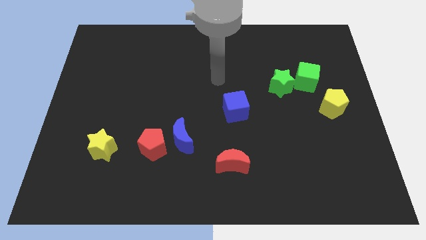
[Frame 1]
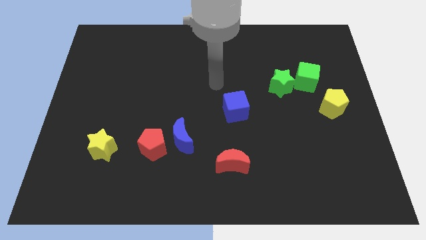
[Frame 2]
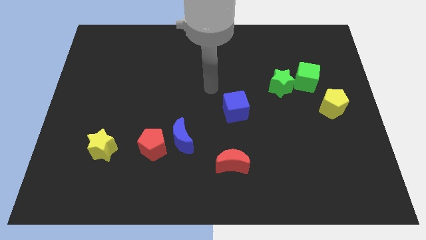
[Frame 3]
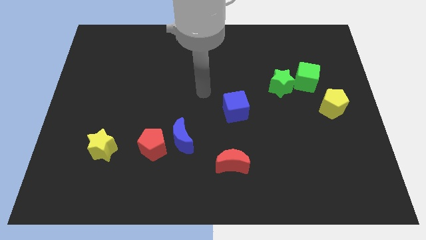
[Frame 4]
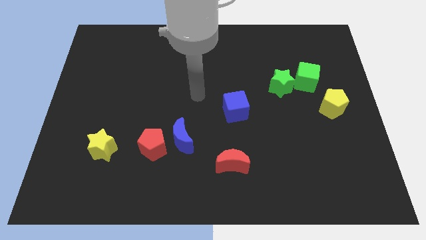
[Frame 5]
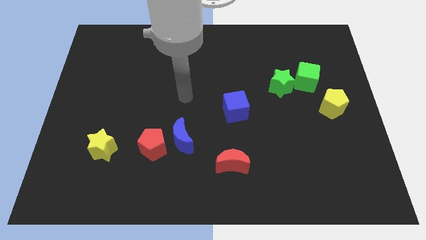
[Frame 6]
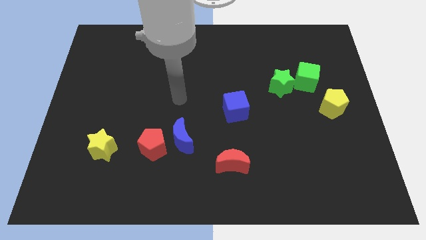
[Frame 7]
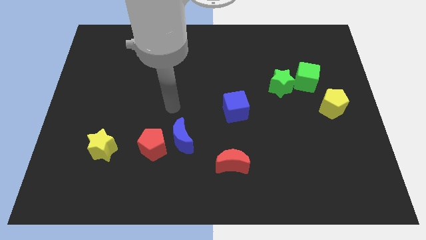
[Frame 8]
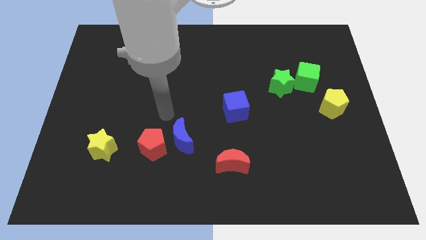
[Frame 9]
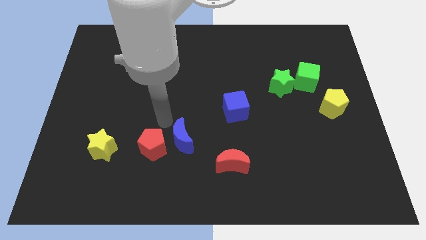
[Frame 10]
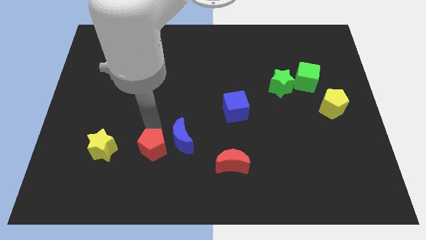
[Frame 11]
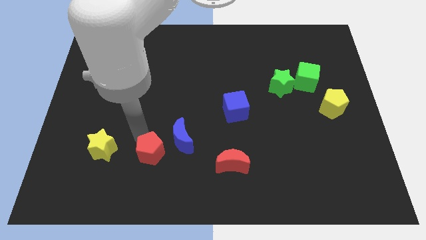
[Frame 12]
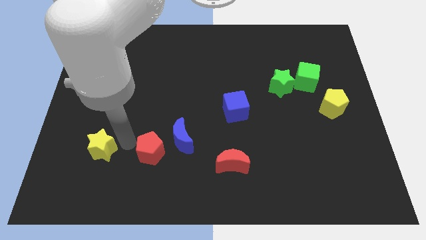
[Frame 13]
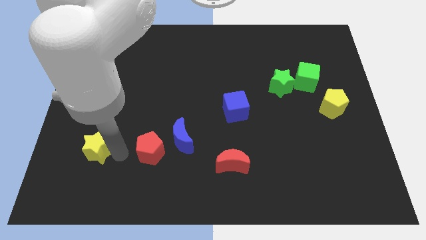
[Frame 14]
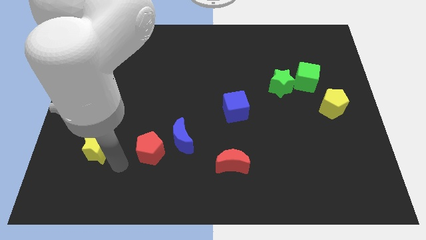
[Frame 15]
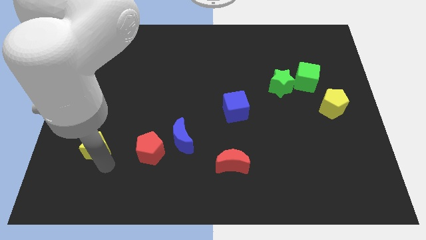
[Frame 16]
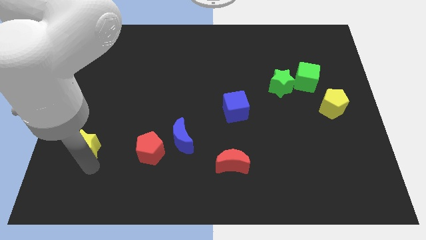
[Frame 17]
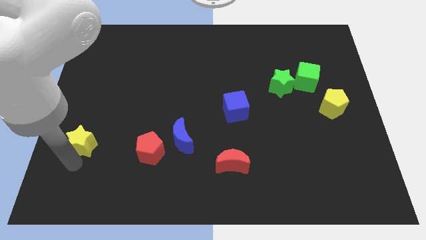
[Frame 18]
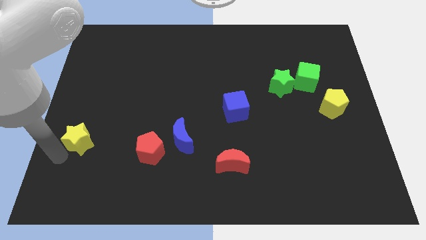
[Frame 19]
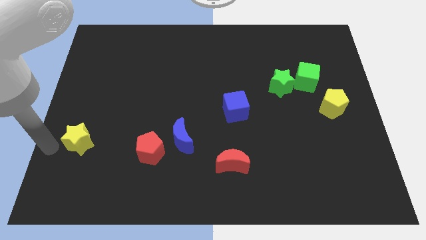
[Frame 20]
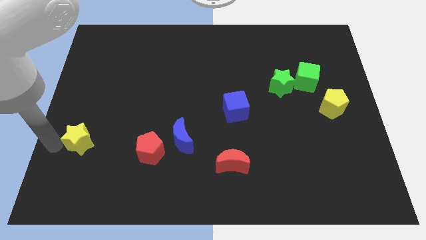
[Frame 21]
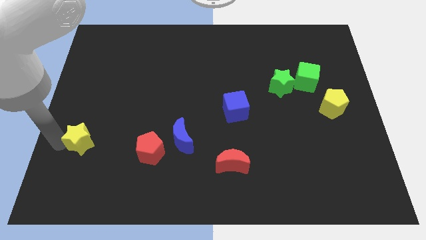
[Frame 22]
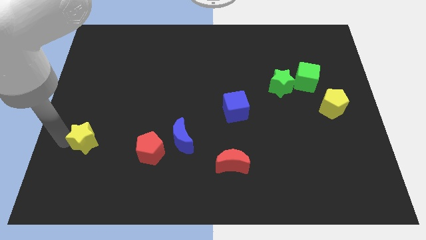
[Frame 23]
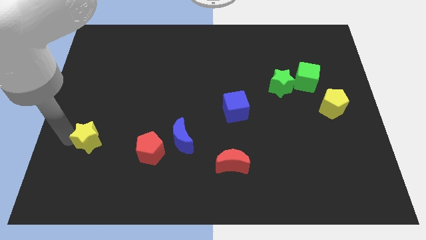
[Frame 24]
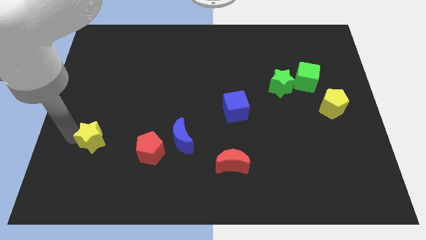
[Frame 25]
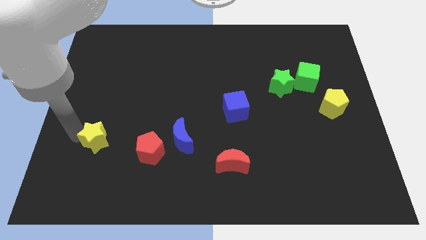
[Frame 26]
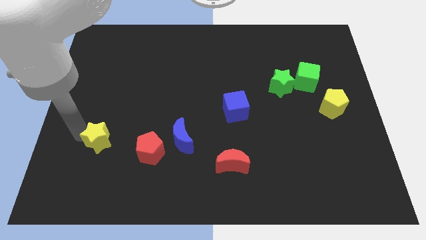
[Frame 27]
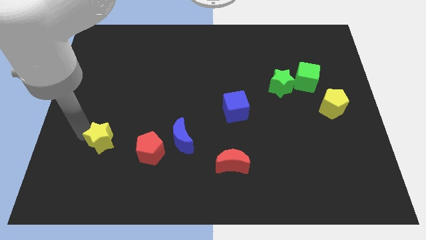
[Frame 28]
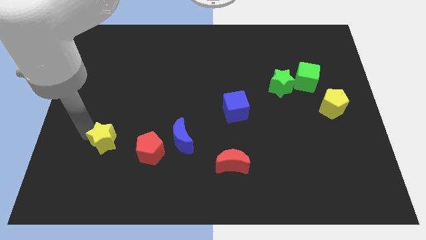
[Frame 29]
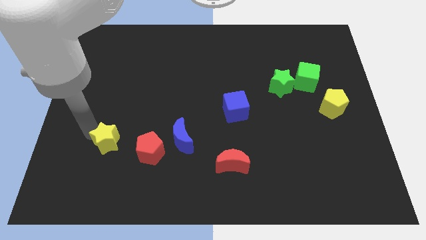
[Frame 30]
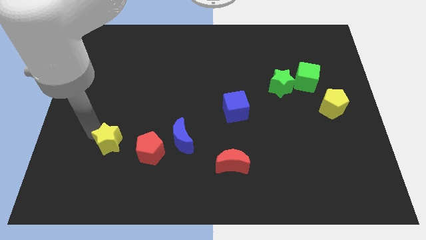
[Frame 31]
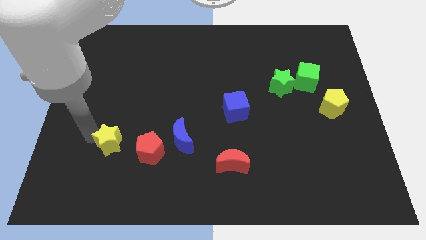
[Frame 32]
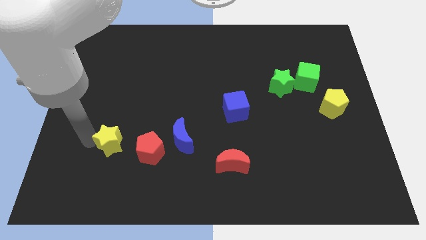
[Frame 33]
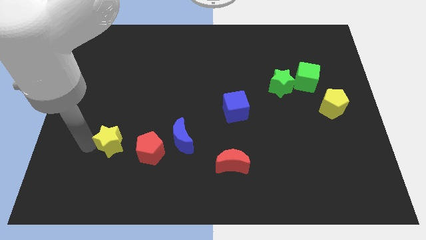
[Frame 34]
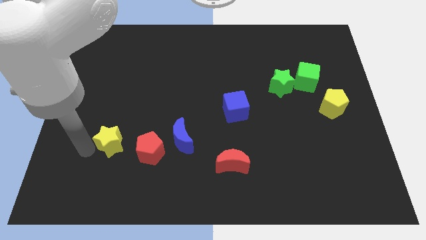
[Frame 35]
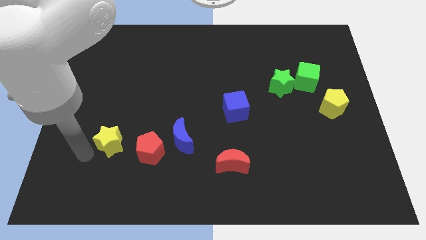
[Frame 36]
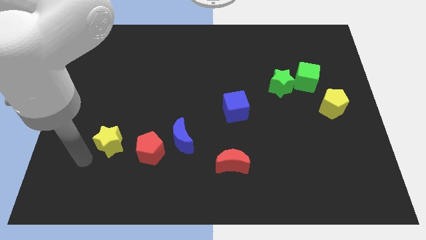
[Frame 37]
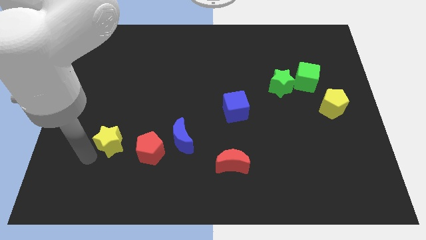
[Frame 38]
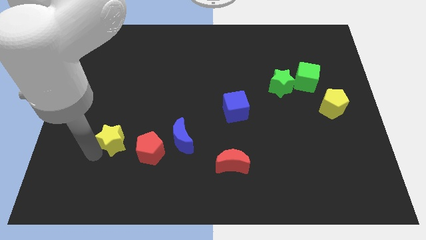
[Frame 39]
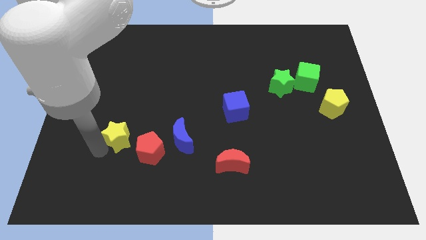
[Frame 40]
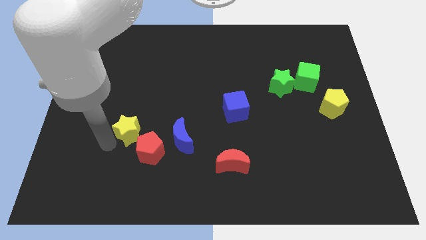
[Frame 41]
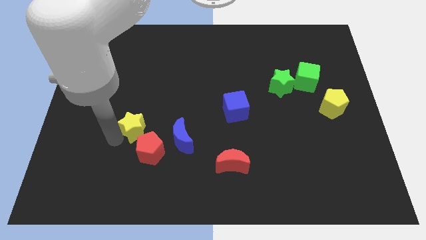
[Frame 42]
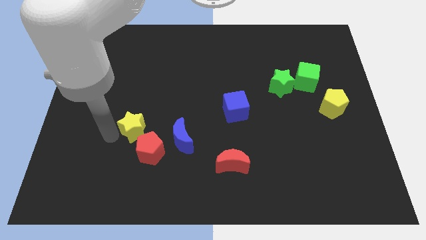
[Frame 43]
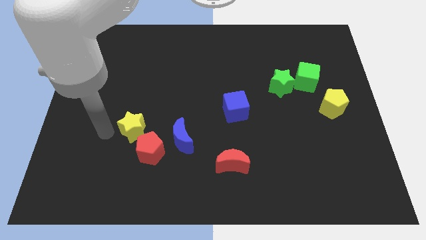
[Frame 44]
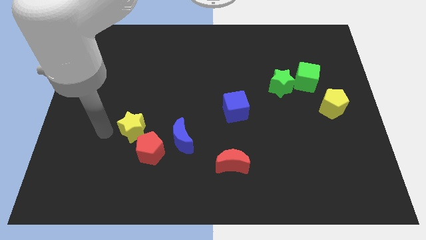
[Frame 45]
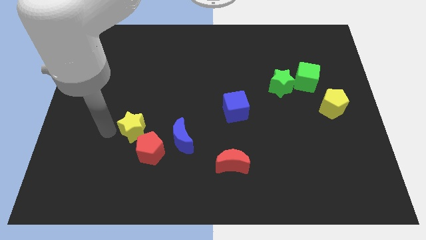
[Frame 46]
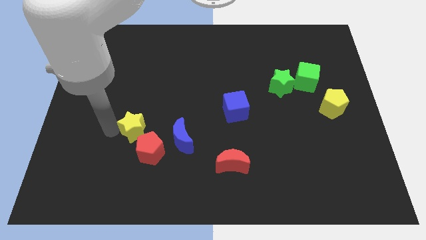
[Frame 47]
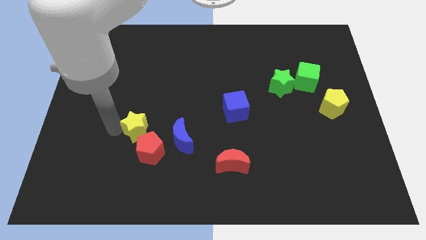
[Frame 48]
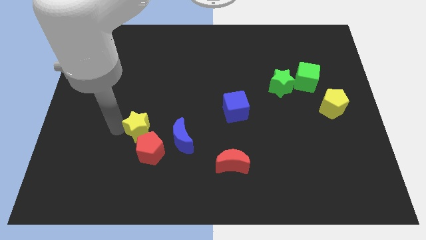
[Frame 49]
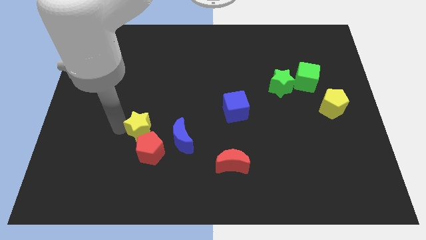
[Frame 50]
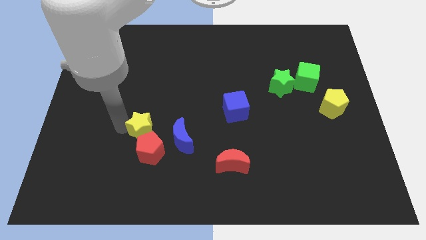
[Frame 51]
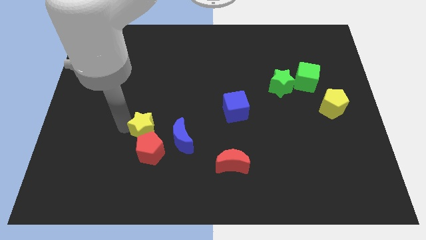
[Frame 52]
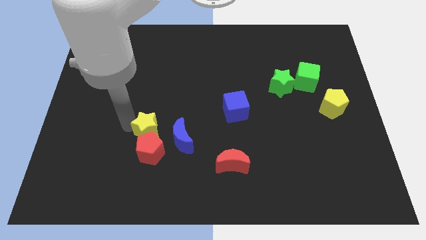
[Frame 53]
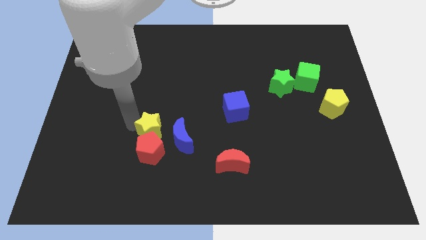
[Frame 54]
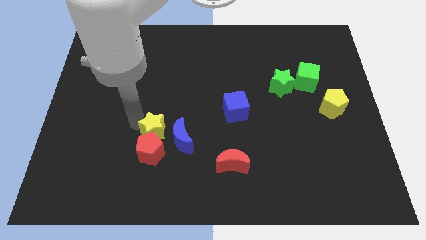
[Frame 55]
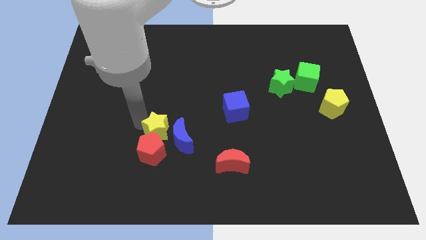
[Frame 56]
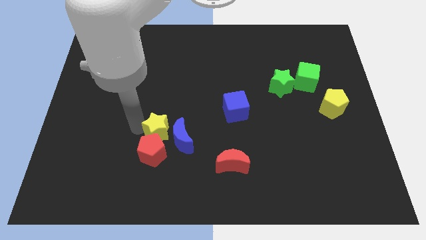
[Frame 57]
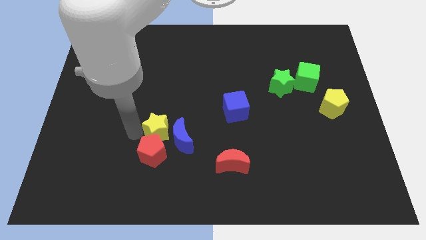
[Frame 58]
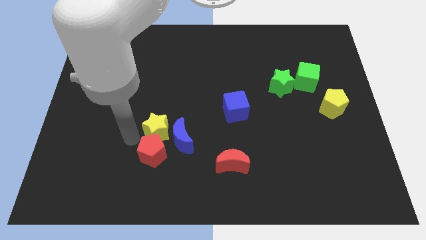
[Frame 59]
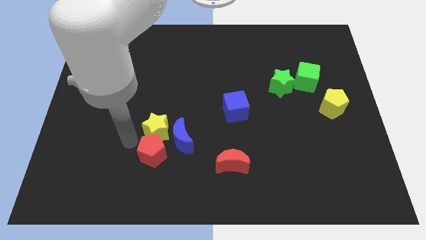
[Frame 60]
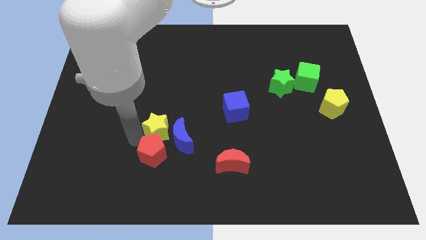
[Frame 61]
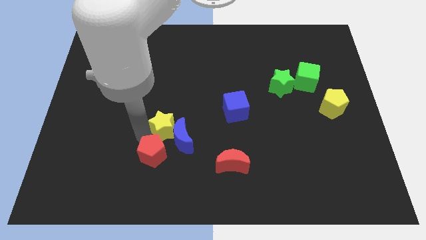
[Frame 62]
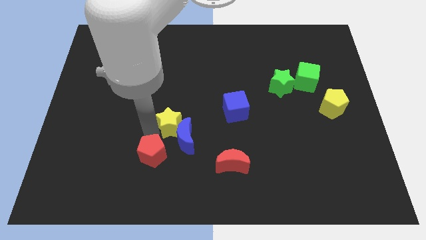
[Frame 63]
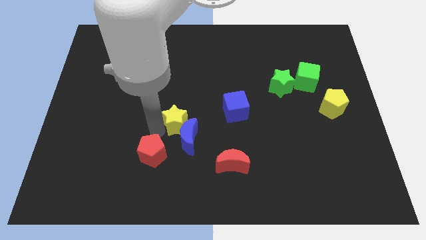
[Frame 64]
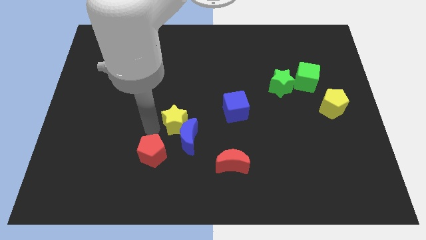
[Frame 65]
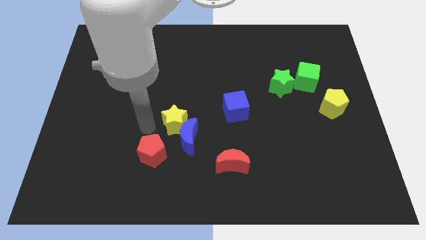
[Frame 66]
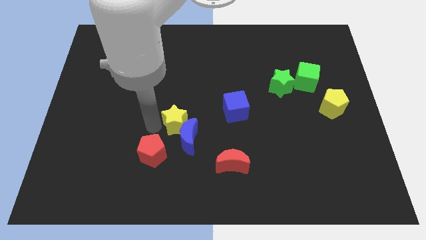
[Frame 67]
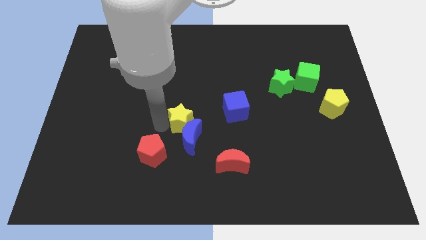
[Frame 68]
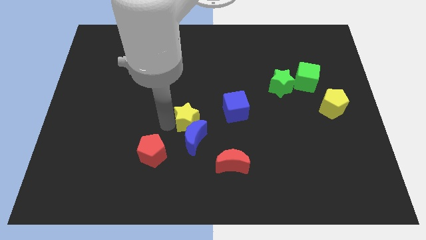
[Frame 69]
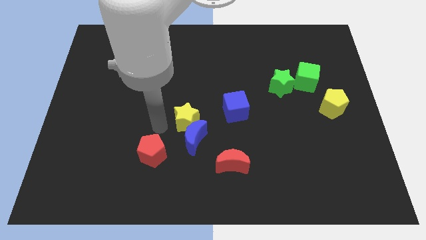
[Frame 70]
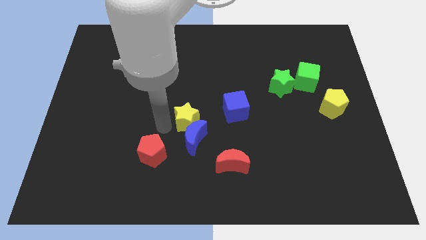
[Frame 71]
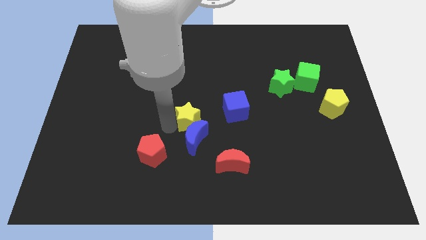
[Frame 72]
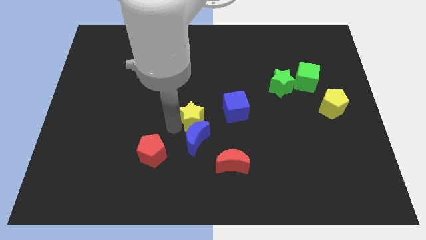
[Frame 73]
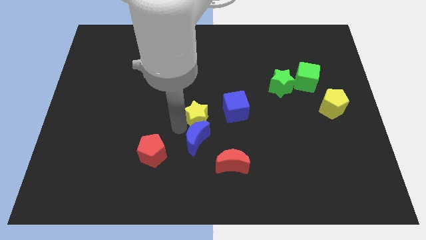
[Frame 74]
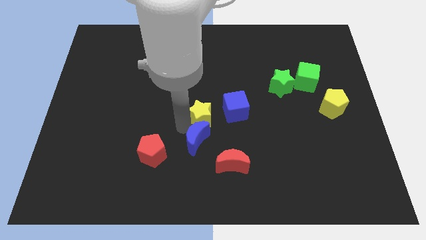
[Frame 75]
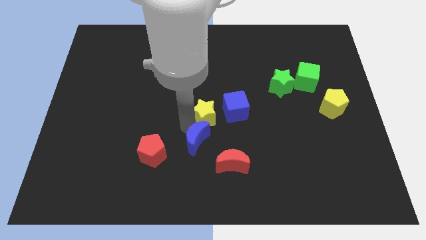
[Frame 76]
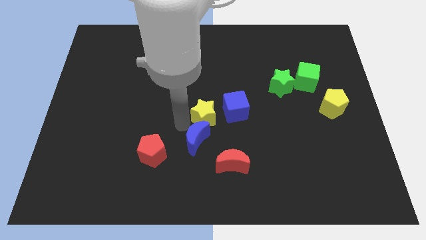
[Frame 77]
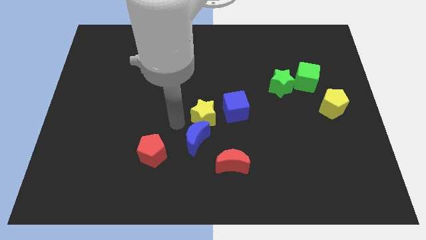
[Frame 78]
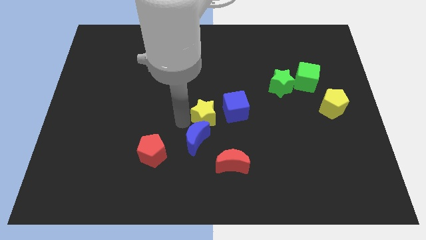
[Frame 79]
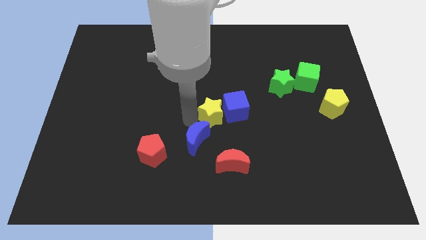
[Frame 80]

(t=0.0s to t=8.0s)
move the yellow star towards the blue cube
